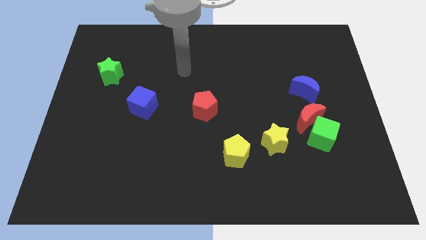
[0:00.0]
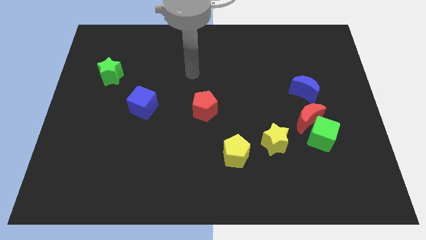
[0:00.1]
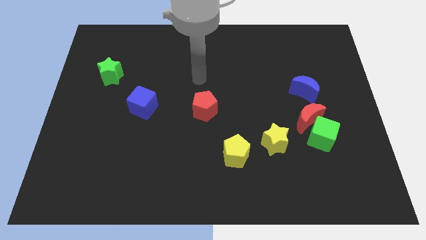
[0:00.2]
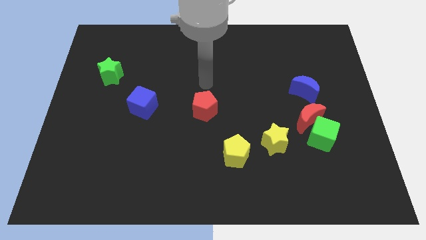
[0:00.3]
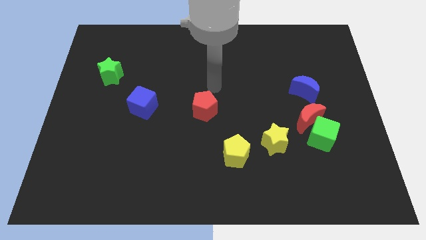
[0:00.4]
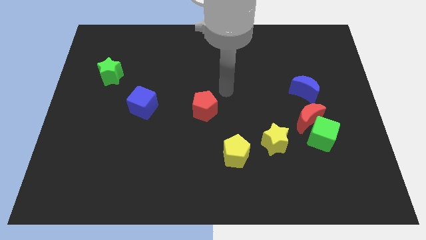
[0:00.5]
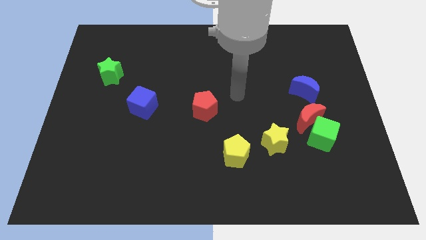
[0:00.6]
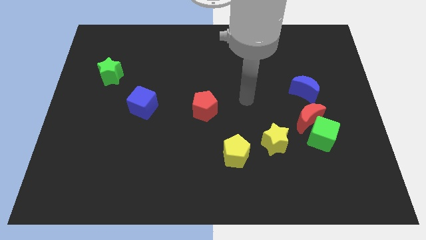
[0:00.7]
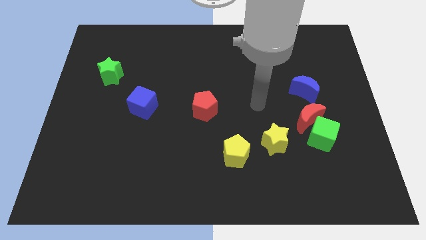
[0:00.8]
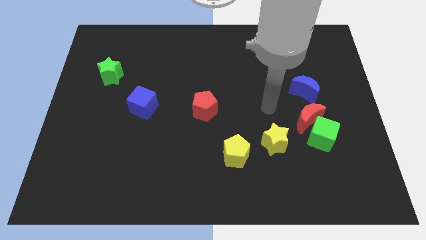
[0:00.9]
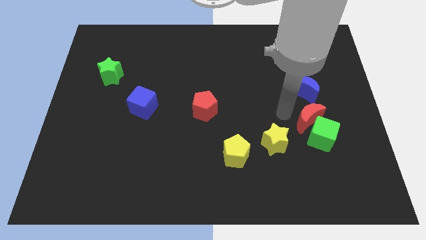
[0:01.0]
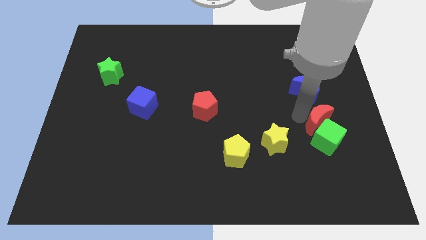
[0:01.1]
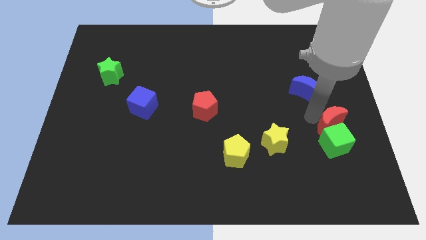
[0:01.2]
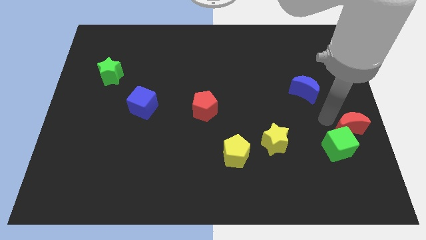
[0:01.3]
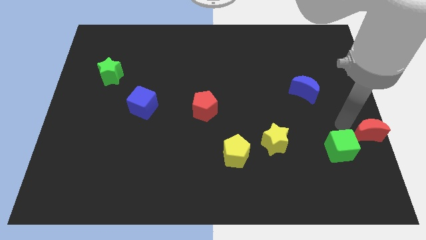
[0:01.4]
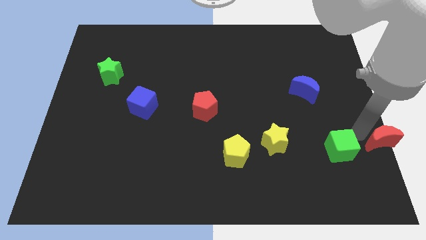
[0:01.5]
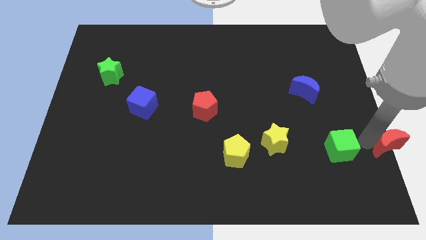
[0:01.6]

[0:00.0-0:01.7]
pull the green cube apart from the red moon

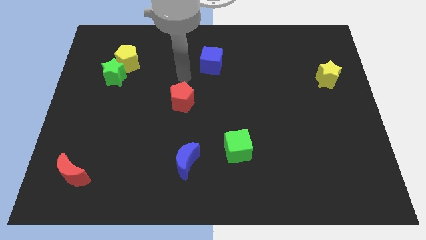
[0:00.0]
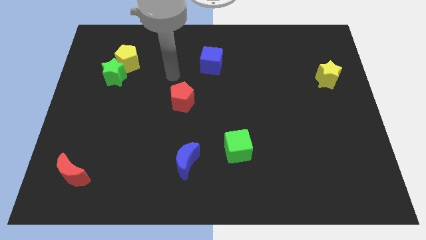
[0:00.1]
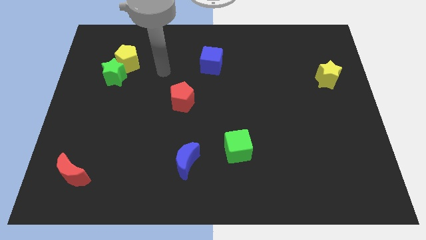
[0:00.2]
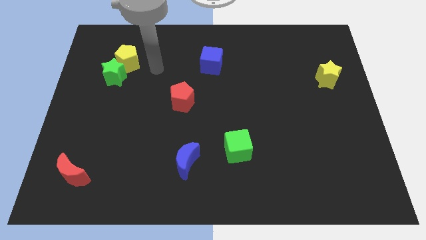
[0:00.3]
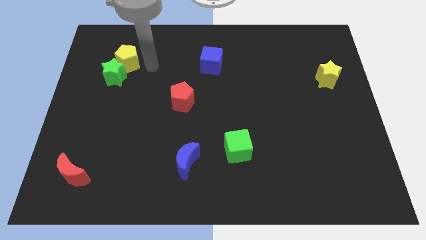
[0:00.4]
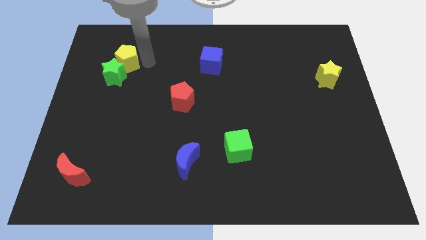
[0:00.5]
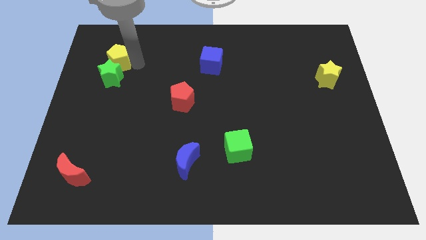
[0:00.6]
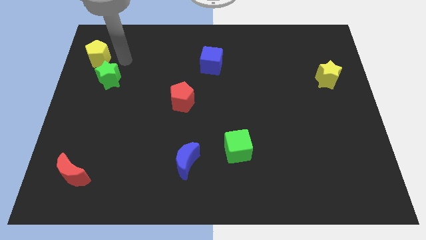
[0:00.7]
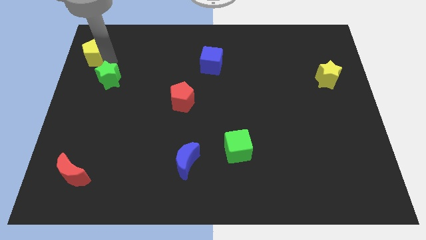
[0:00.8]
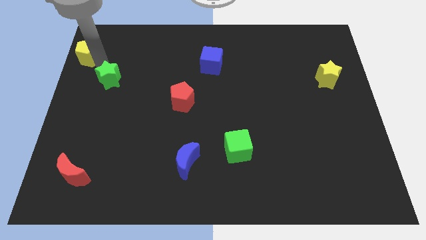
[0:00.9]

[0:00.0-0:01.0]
move the green star away from the yellow pentagon

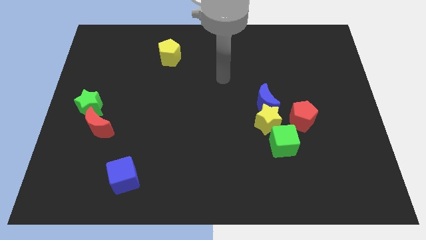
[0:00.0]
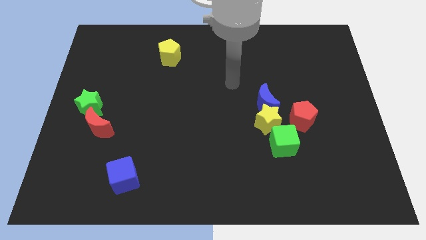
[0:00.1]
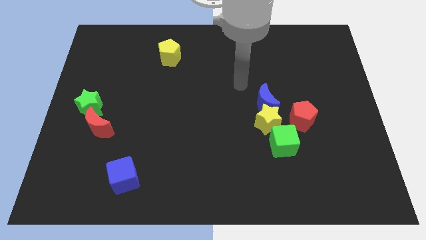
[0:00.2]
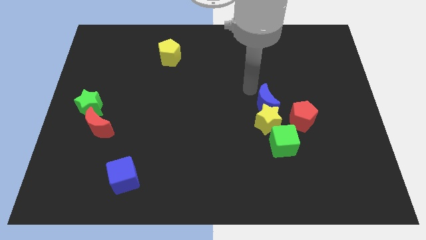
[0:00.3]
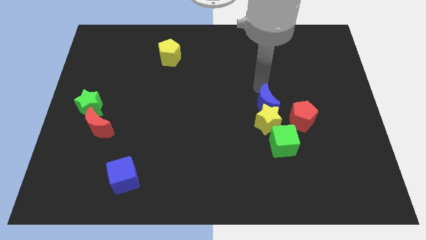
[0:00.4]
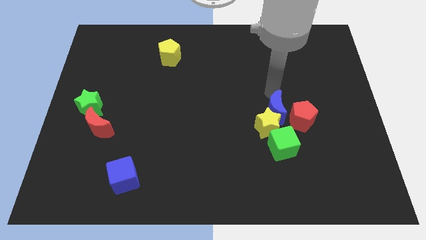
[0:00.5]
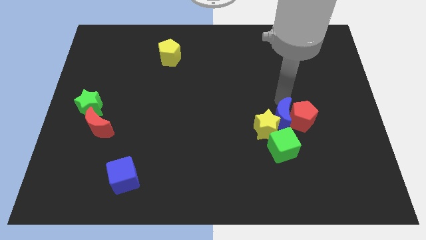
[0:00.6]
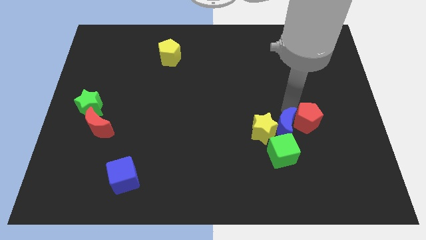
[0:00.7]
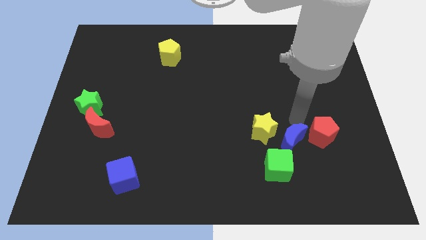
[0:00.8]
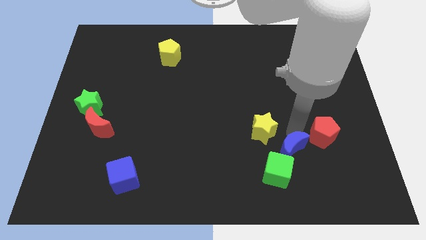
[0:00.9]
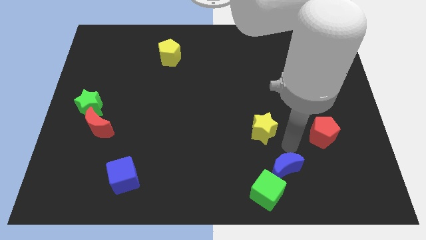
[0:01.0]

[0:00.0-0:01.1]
separate the yellow star from the blue moon, green cube, and red pentagon

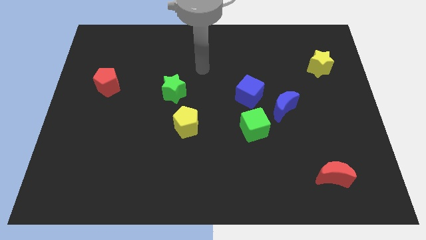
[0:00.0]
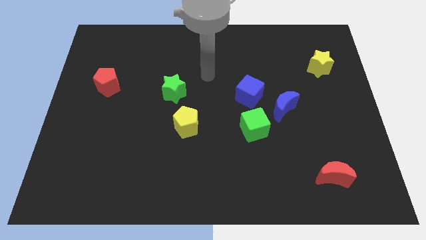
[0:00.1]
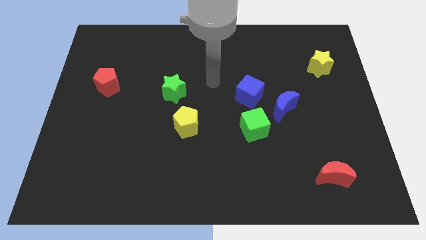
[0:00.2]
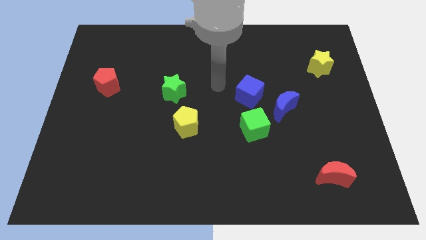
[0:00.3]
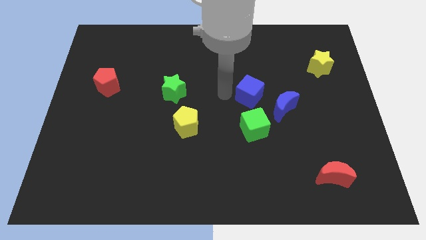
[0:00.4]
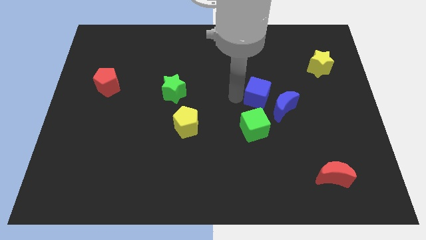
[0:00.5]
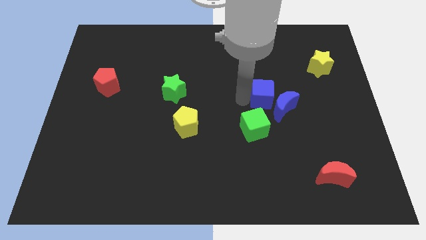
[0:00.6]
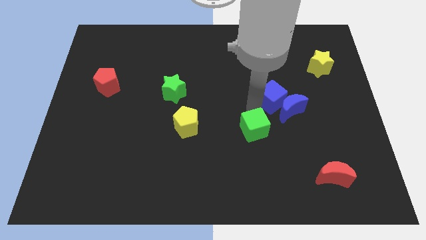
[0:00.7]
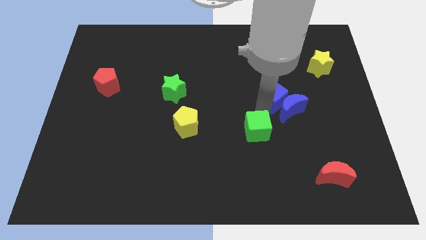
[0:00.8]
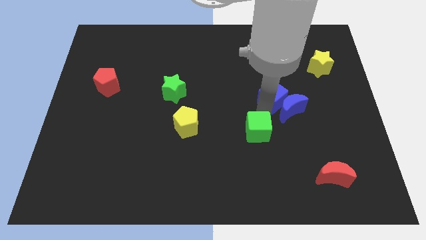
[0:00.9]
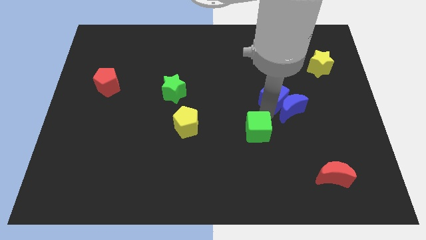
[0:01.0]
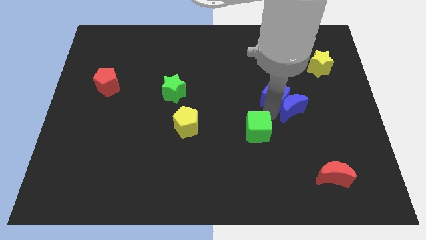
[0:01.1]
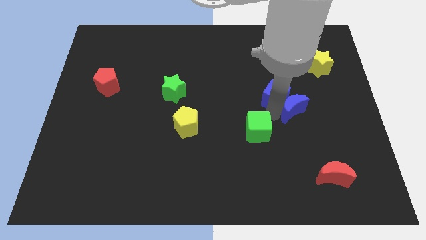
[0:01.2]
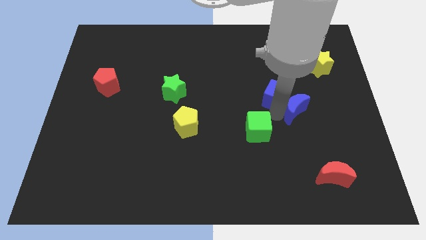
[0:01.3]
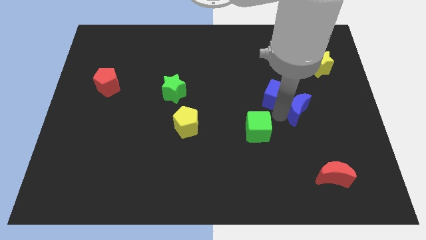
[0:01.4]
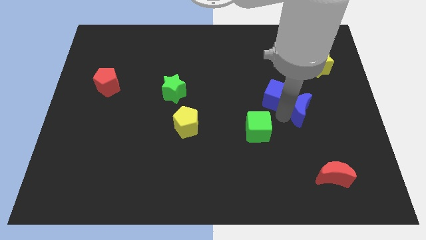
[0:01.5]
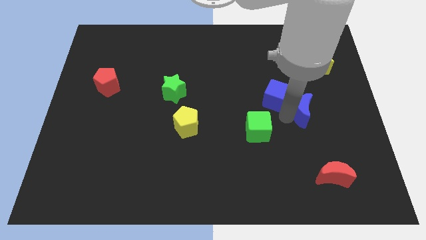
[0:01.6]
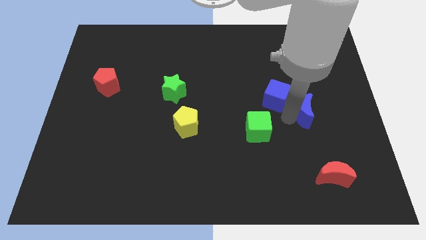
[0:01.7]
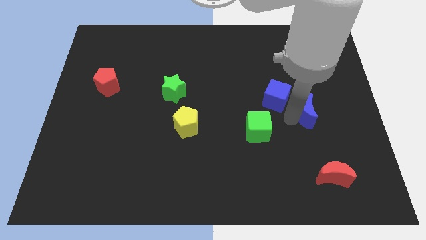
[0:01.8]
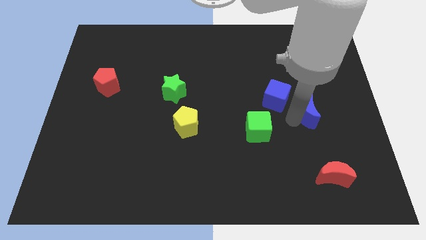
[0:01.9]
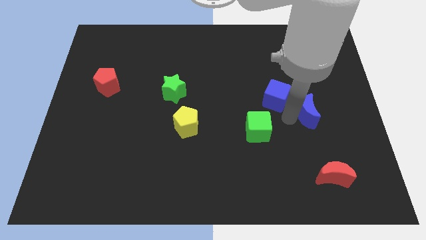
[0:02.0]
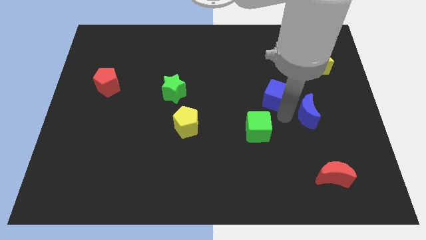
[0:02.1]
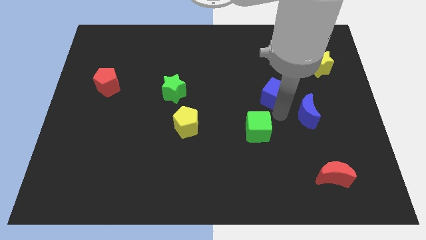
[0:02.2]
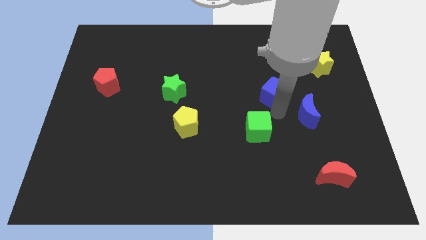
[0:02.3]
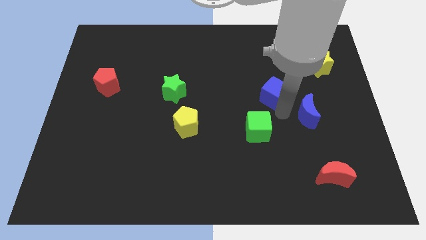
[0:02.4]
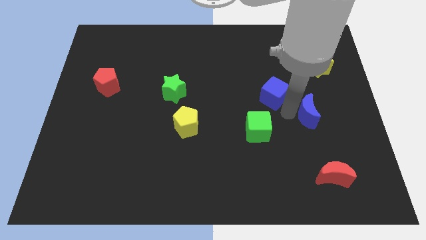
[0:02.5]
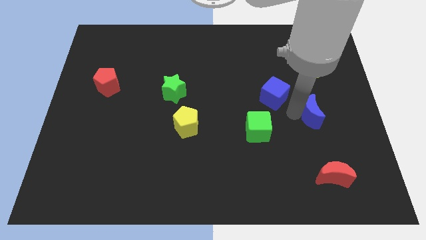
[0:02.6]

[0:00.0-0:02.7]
separate the blue moon from the blue cube and green cube

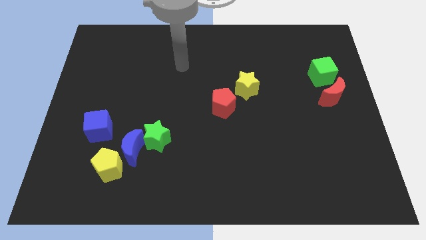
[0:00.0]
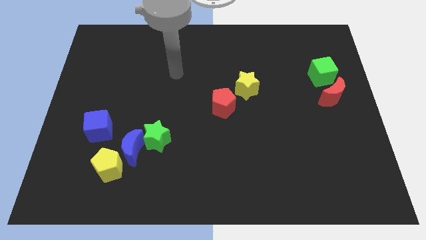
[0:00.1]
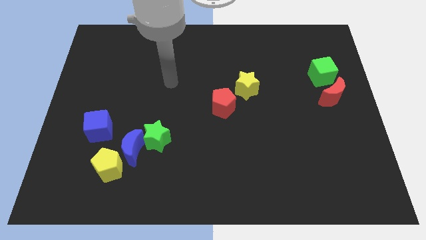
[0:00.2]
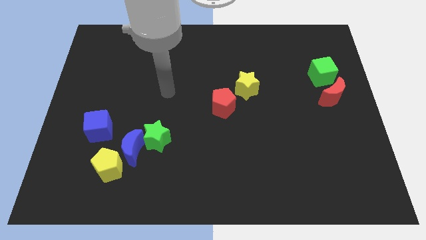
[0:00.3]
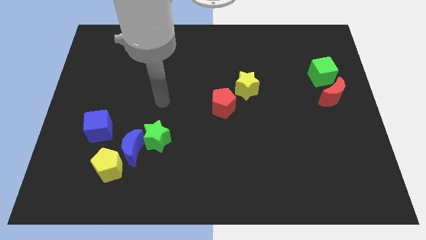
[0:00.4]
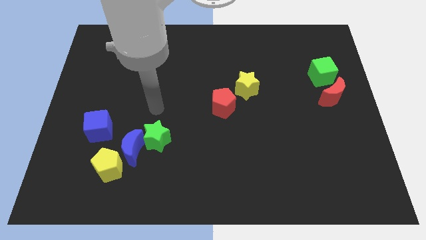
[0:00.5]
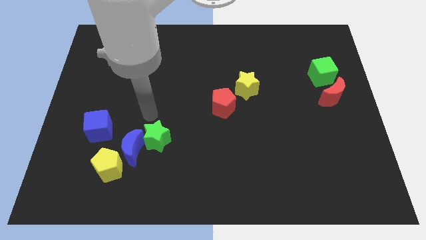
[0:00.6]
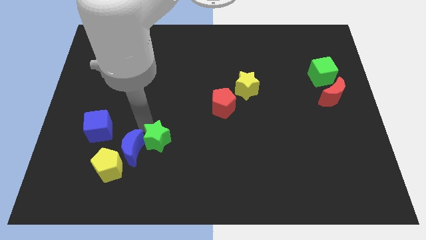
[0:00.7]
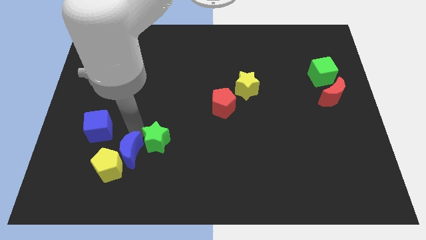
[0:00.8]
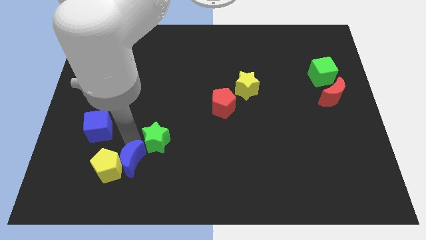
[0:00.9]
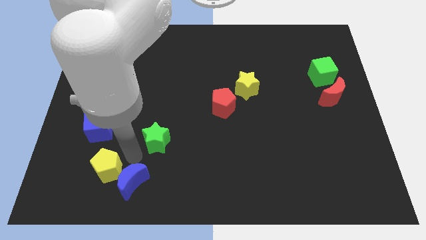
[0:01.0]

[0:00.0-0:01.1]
separate the green star from the blue moon

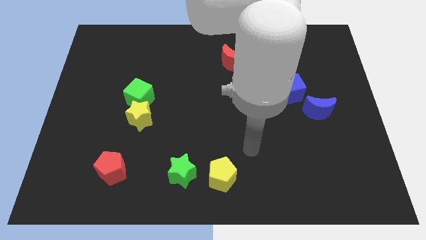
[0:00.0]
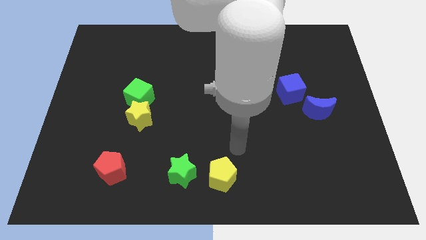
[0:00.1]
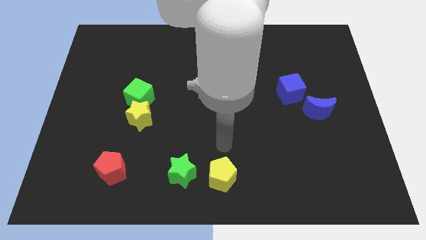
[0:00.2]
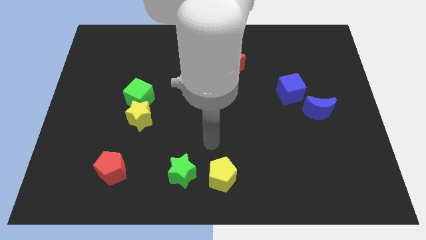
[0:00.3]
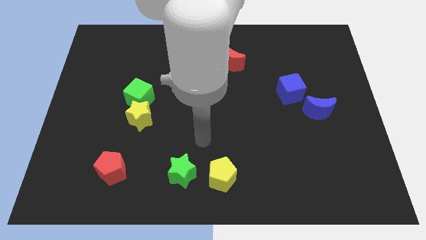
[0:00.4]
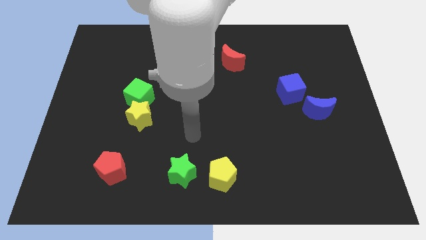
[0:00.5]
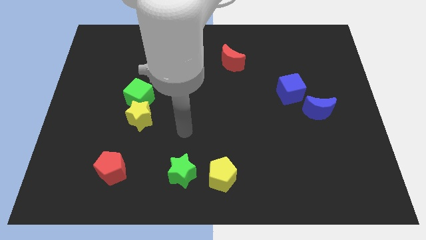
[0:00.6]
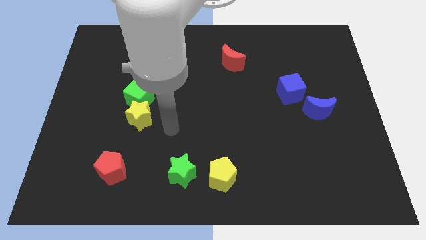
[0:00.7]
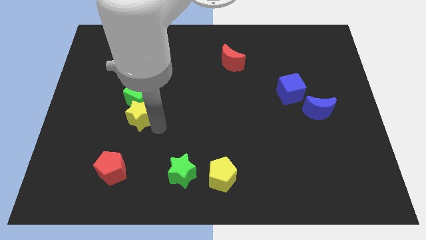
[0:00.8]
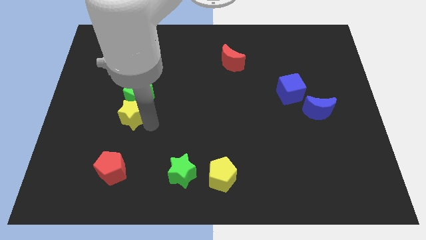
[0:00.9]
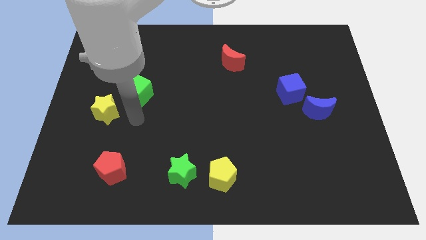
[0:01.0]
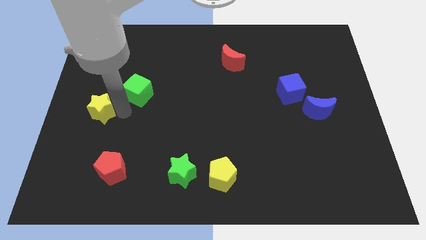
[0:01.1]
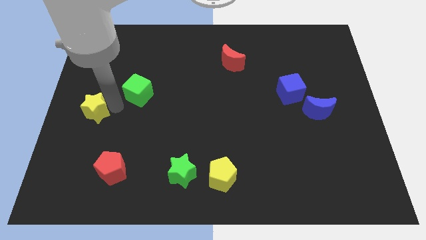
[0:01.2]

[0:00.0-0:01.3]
pull the green cube apart from the yellow star

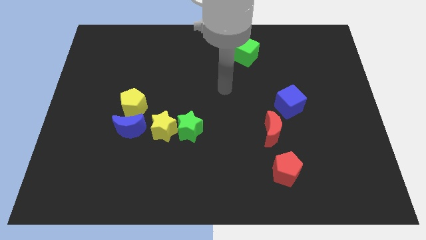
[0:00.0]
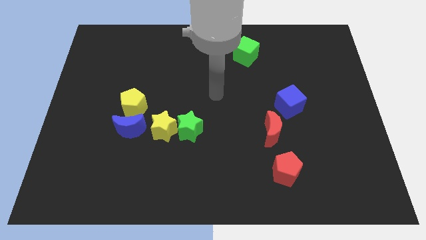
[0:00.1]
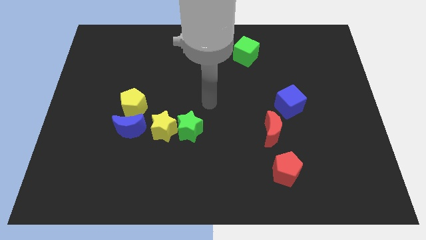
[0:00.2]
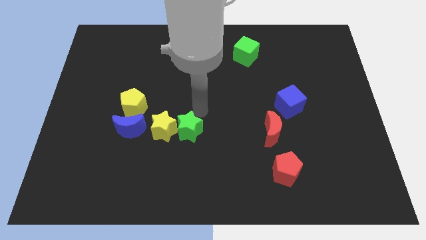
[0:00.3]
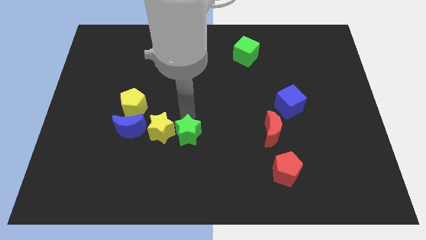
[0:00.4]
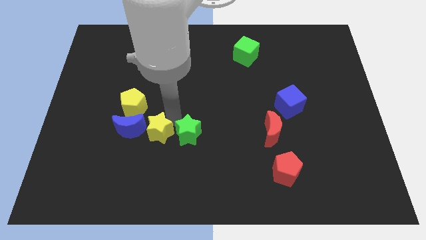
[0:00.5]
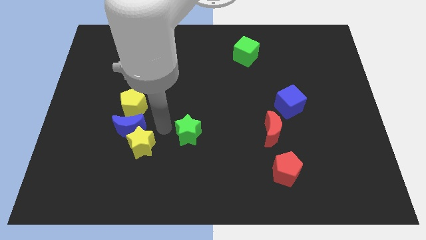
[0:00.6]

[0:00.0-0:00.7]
pull the green star apart from the yellow star
